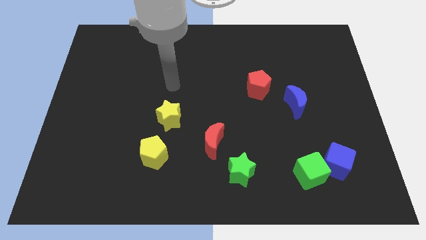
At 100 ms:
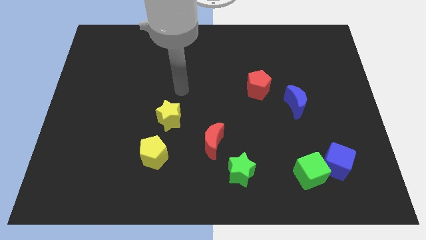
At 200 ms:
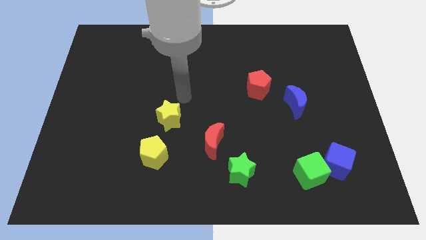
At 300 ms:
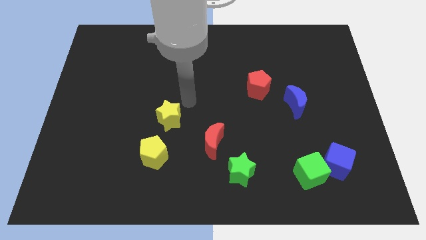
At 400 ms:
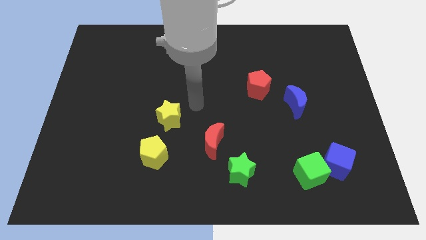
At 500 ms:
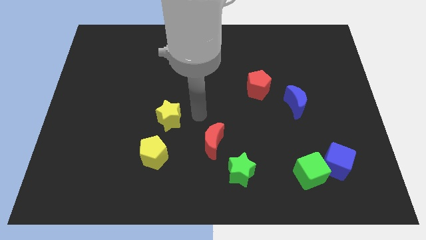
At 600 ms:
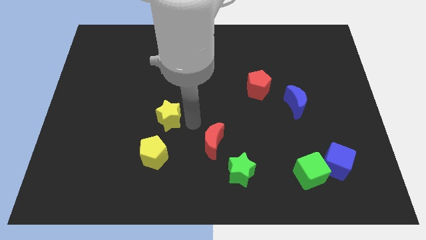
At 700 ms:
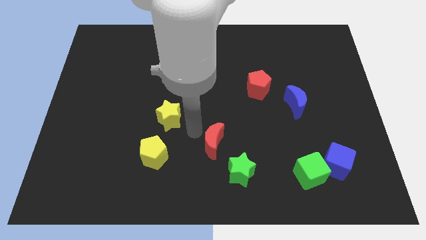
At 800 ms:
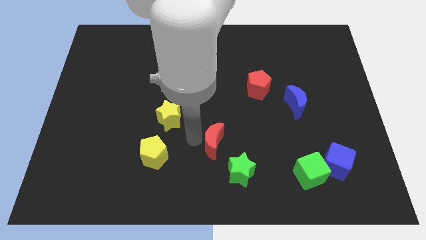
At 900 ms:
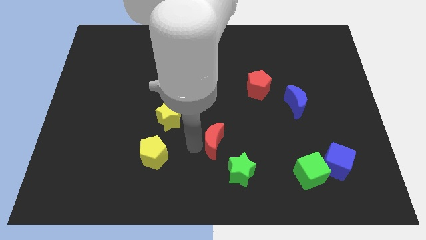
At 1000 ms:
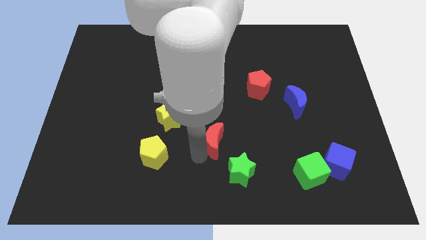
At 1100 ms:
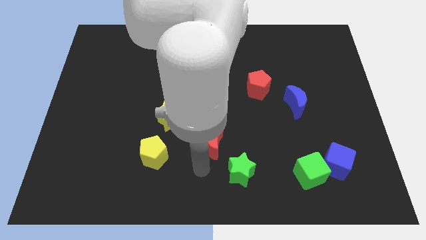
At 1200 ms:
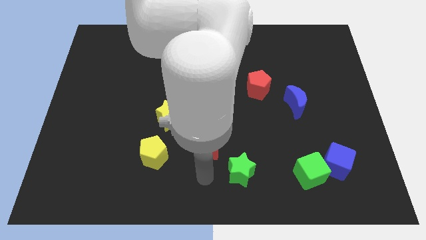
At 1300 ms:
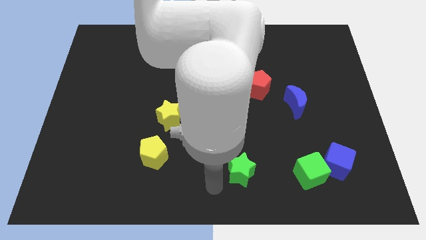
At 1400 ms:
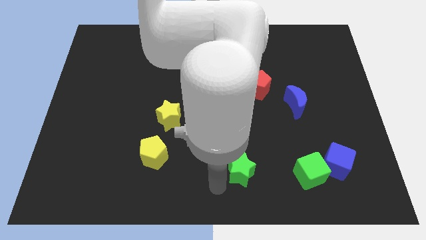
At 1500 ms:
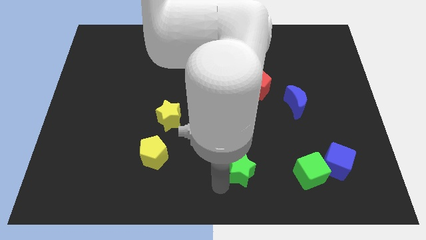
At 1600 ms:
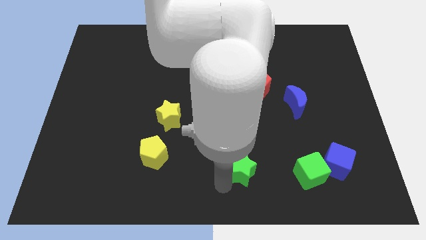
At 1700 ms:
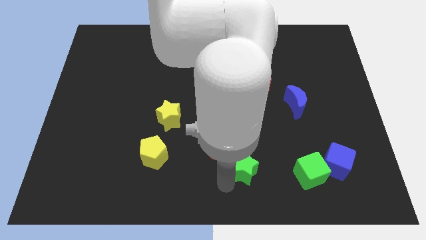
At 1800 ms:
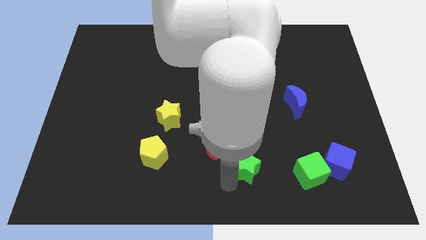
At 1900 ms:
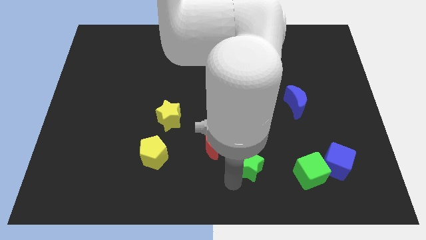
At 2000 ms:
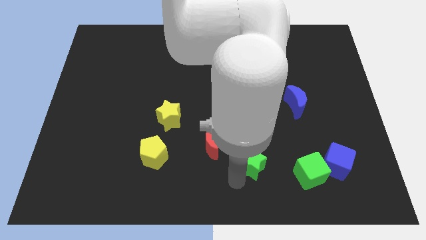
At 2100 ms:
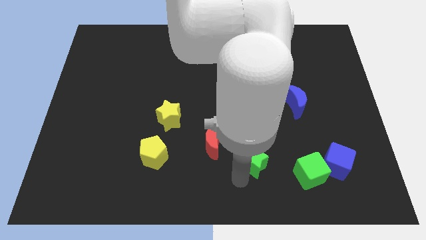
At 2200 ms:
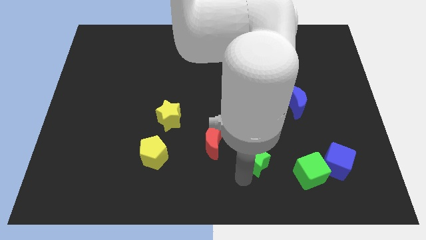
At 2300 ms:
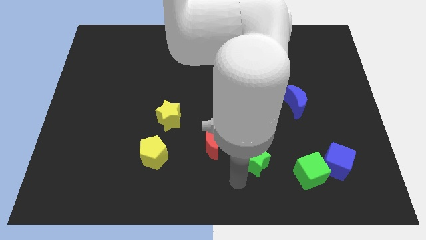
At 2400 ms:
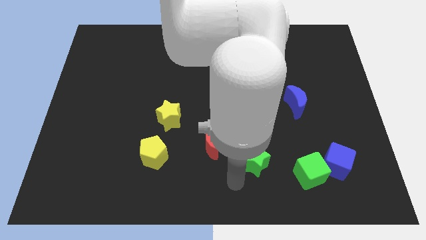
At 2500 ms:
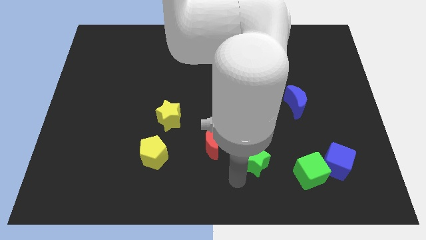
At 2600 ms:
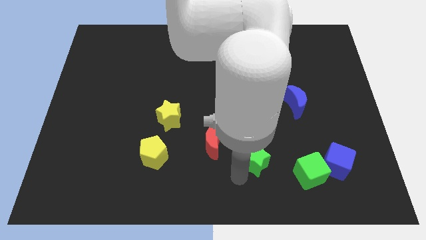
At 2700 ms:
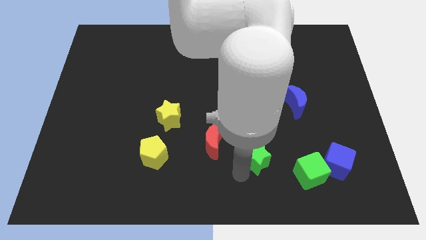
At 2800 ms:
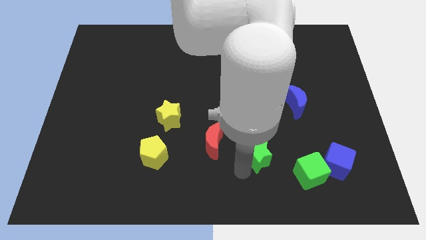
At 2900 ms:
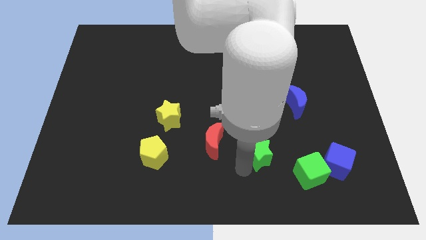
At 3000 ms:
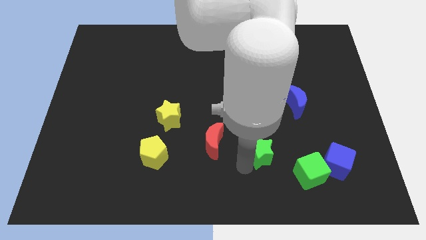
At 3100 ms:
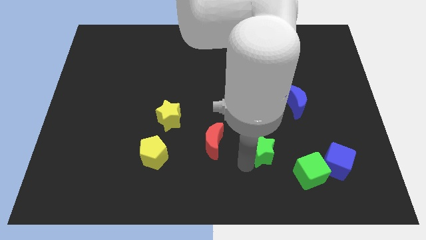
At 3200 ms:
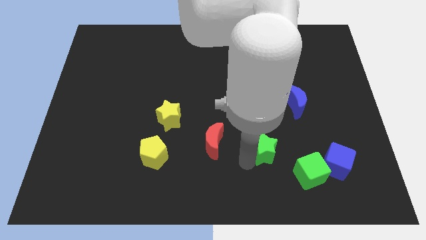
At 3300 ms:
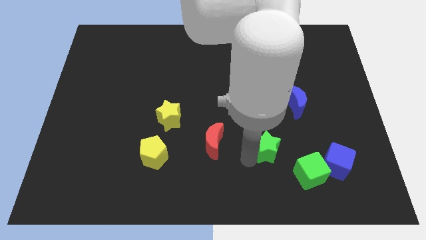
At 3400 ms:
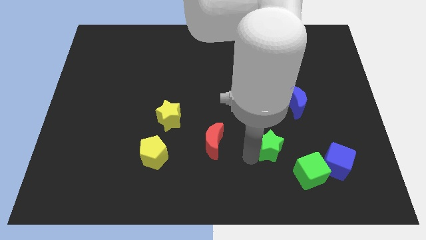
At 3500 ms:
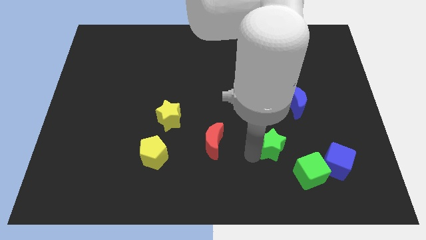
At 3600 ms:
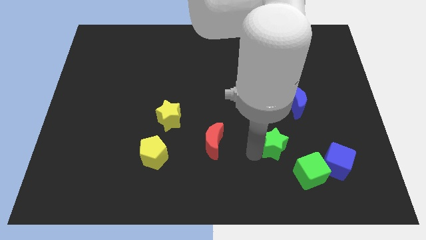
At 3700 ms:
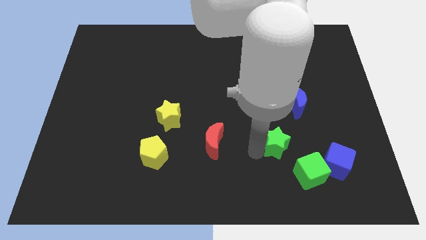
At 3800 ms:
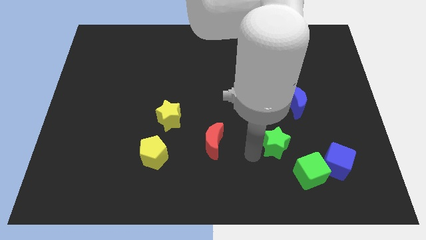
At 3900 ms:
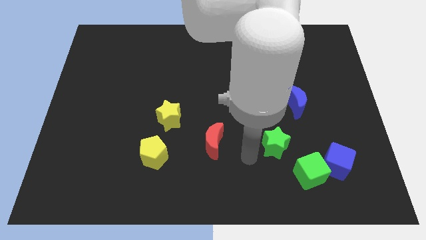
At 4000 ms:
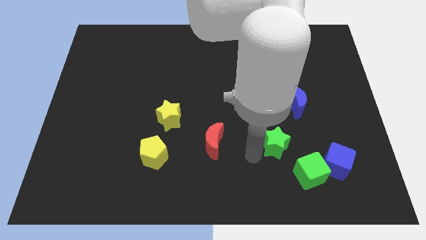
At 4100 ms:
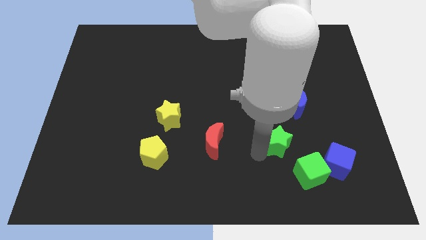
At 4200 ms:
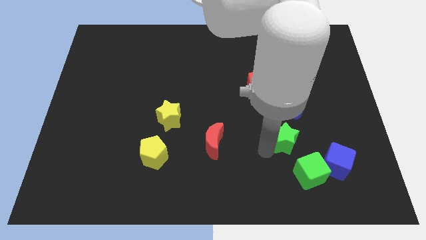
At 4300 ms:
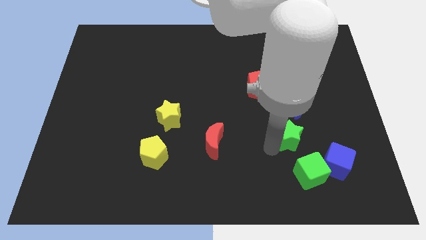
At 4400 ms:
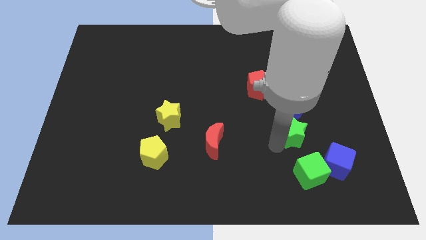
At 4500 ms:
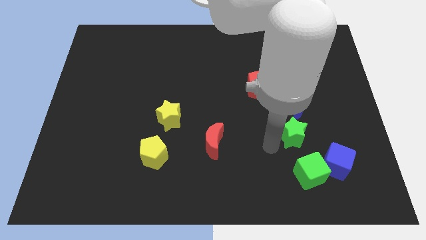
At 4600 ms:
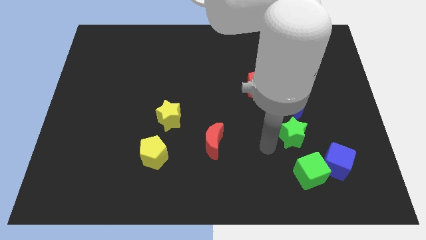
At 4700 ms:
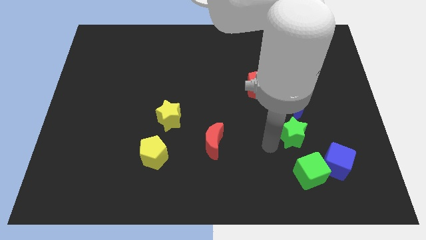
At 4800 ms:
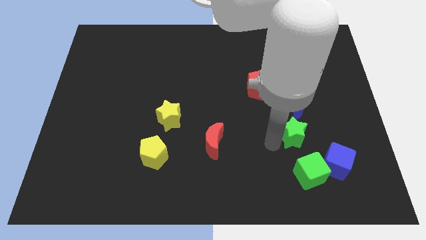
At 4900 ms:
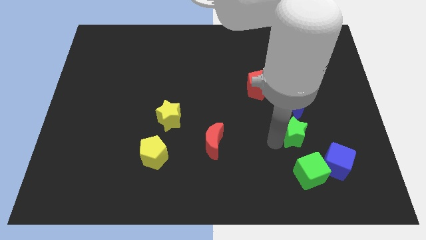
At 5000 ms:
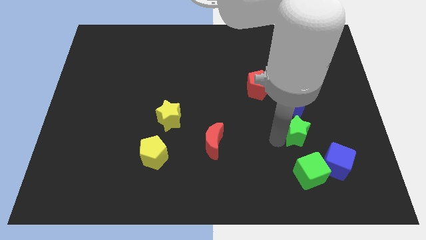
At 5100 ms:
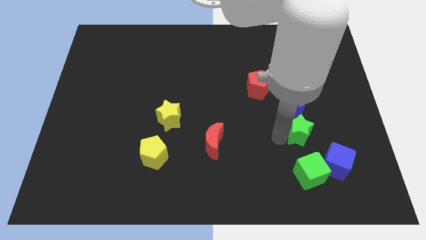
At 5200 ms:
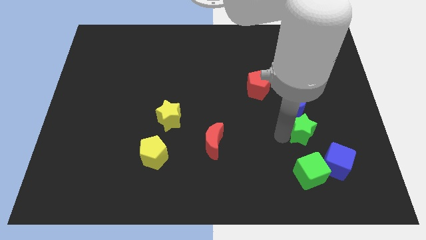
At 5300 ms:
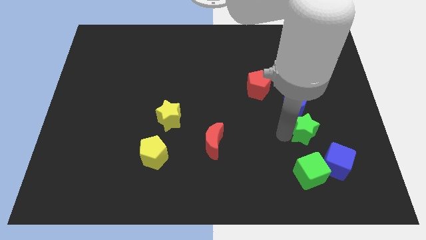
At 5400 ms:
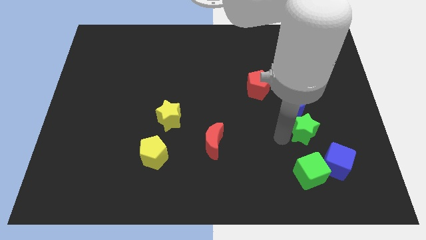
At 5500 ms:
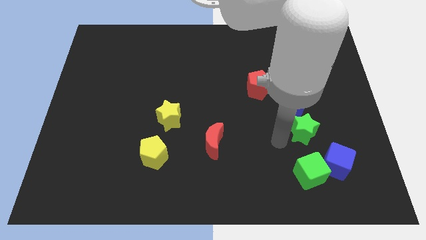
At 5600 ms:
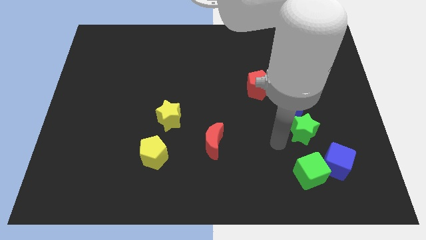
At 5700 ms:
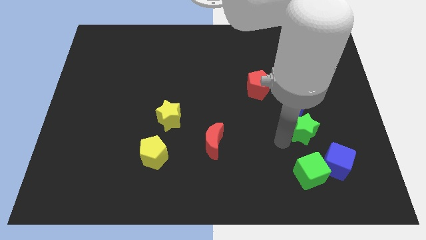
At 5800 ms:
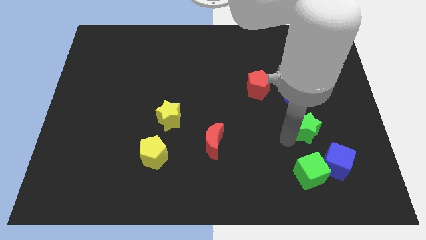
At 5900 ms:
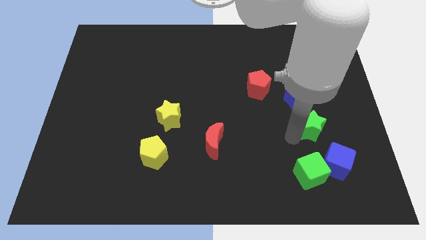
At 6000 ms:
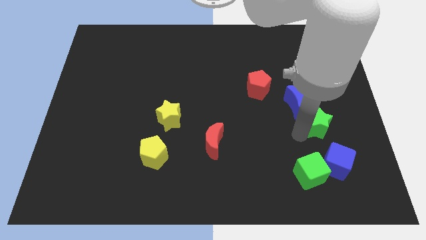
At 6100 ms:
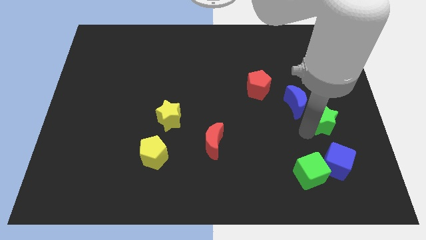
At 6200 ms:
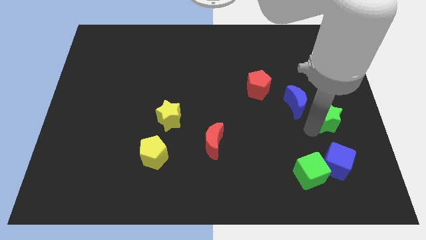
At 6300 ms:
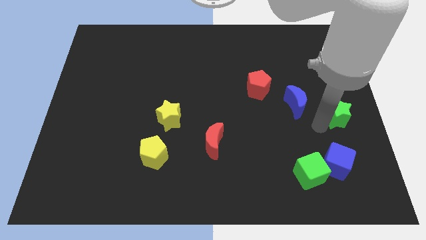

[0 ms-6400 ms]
slide the green star to the right side of the board
